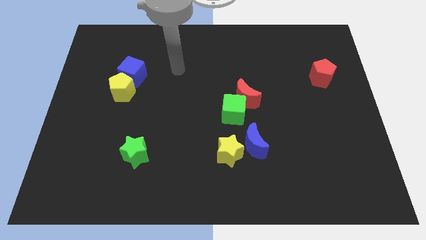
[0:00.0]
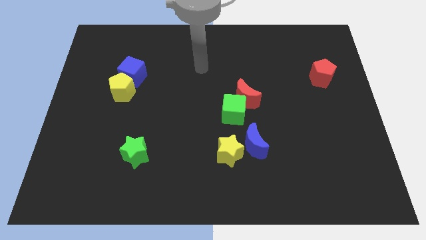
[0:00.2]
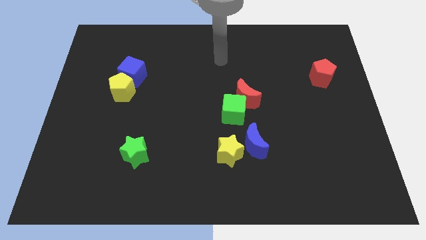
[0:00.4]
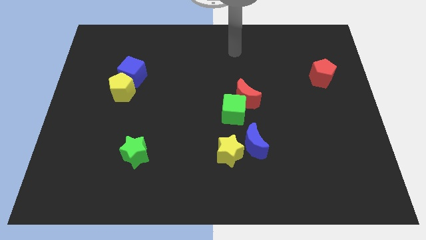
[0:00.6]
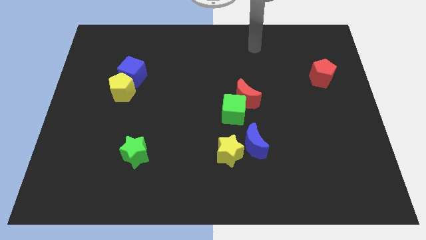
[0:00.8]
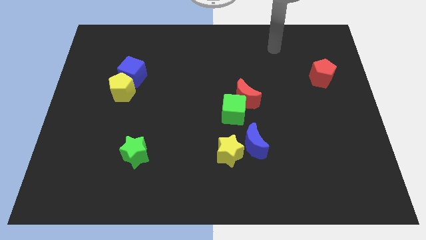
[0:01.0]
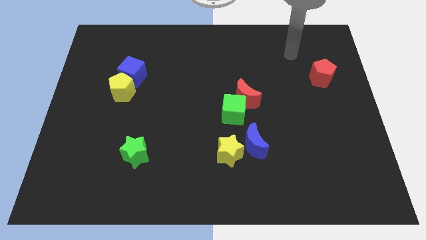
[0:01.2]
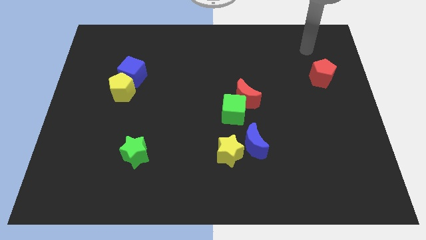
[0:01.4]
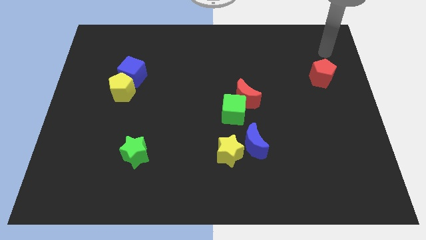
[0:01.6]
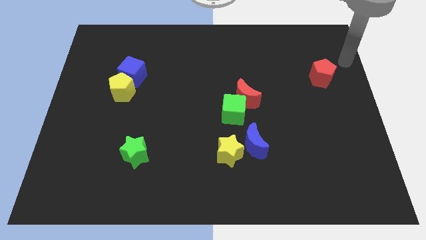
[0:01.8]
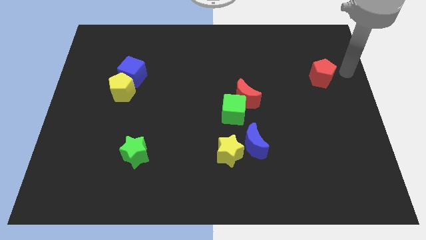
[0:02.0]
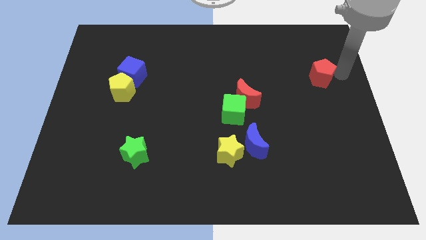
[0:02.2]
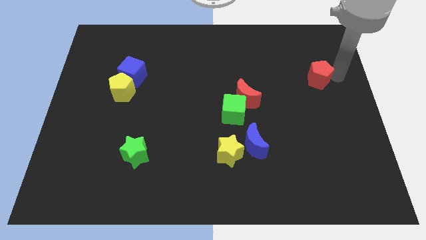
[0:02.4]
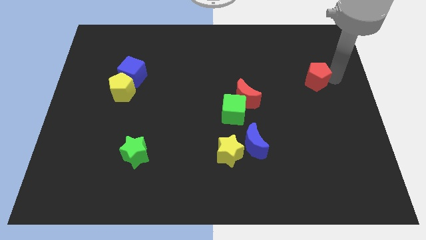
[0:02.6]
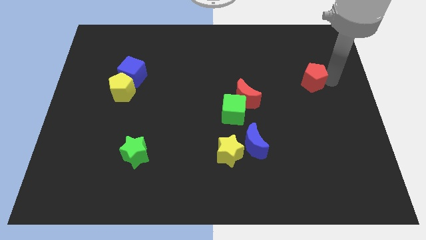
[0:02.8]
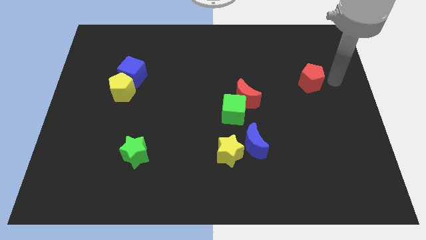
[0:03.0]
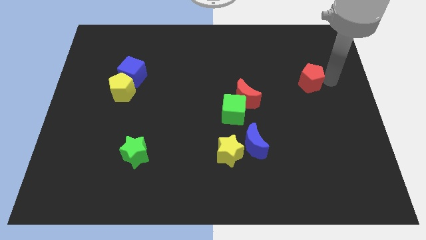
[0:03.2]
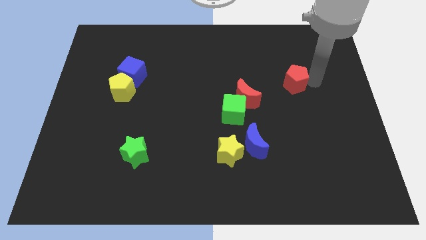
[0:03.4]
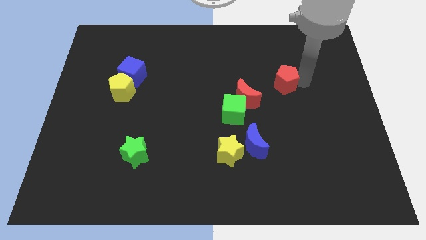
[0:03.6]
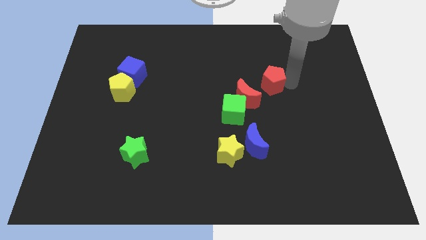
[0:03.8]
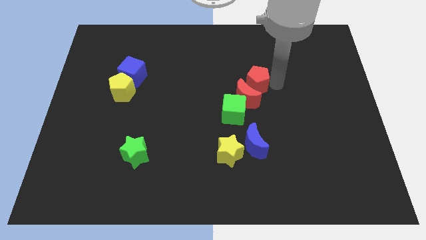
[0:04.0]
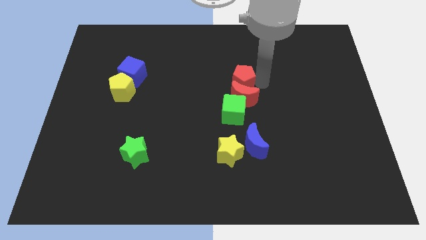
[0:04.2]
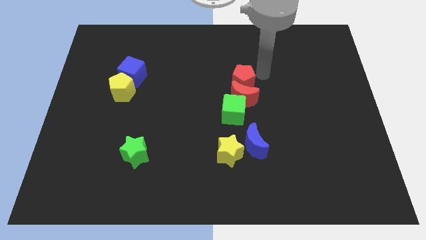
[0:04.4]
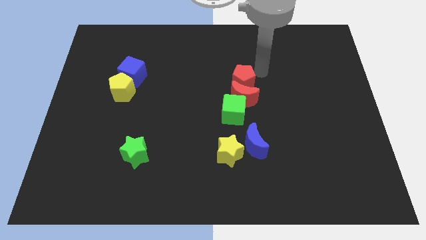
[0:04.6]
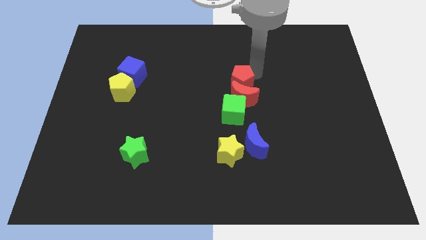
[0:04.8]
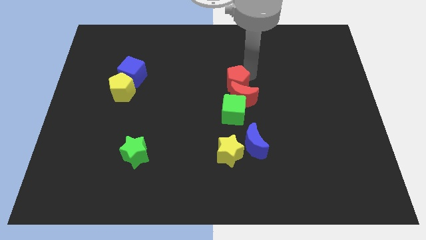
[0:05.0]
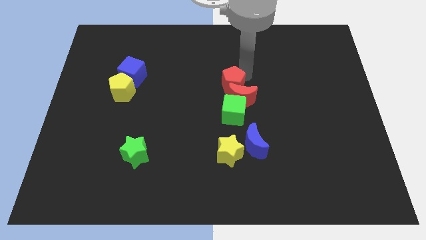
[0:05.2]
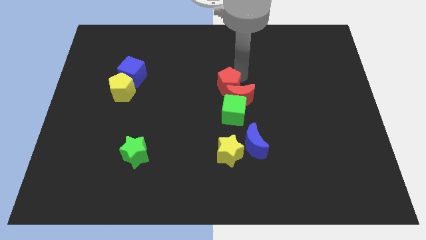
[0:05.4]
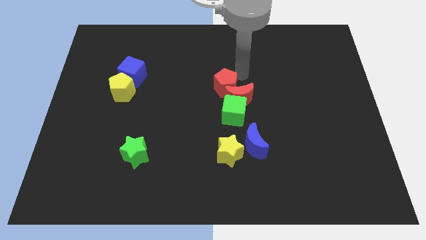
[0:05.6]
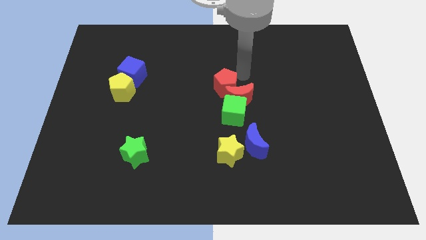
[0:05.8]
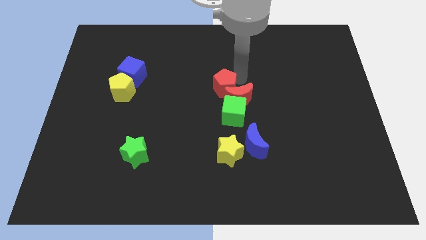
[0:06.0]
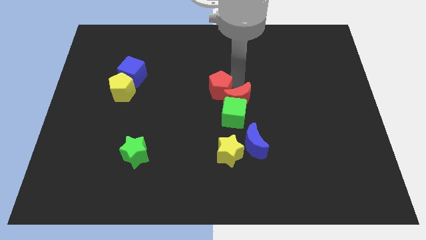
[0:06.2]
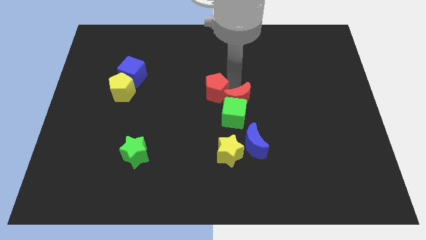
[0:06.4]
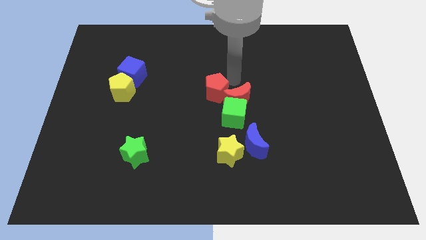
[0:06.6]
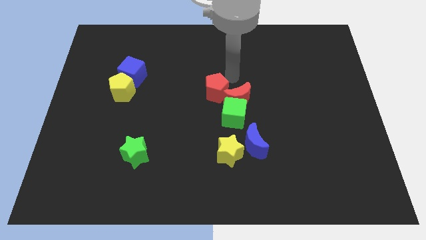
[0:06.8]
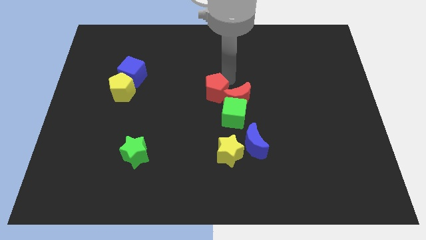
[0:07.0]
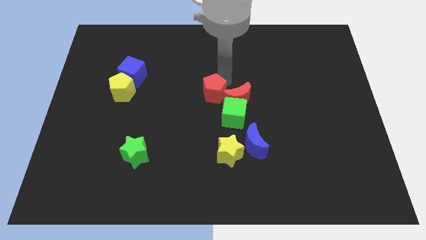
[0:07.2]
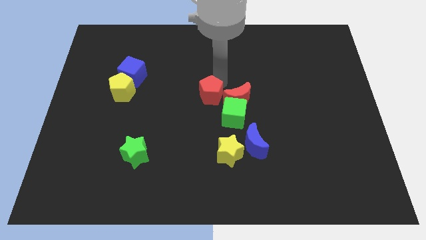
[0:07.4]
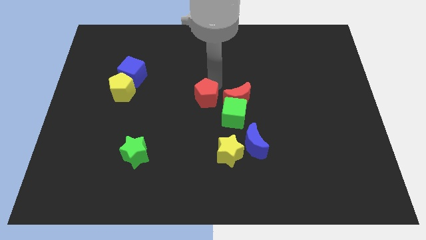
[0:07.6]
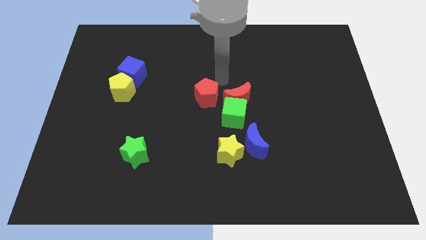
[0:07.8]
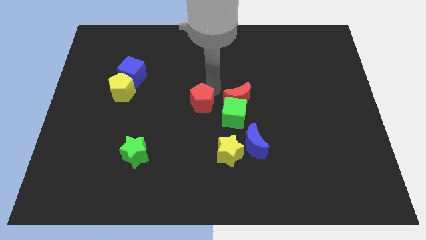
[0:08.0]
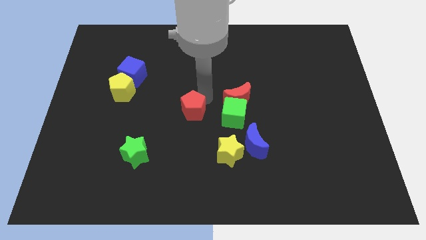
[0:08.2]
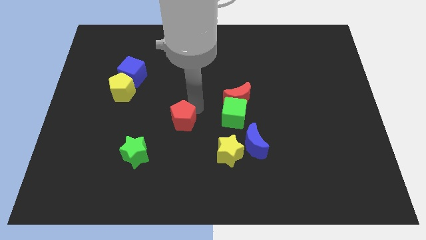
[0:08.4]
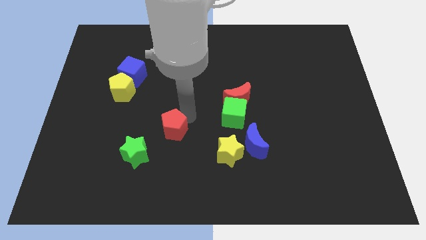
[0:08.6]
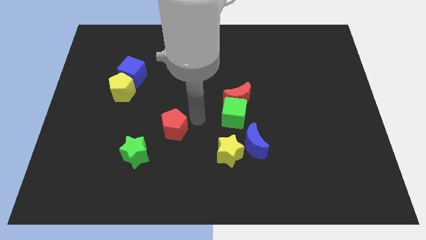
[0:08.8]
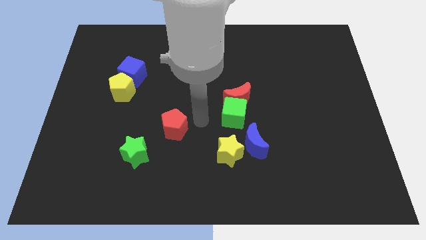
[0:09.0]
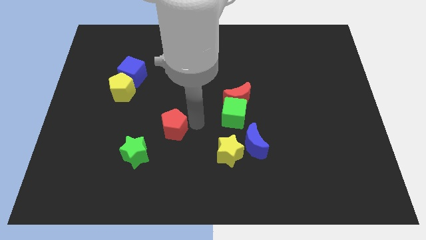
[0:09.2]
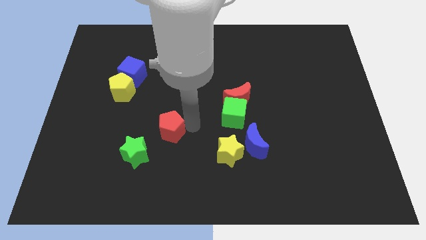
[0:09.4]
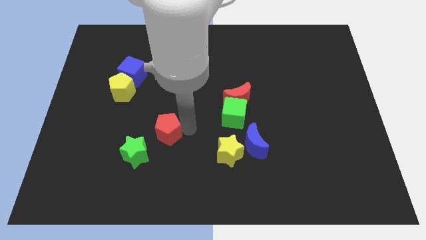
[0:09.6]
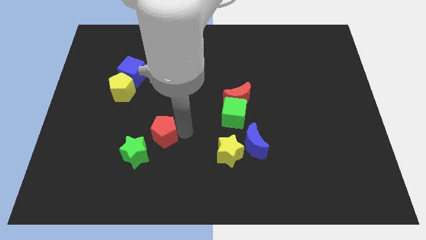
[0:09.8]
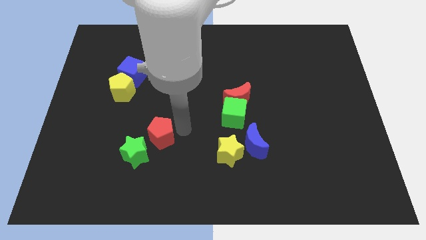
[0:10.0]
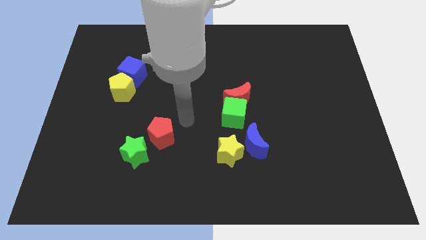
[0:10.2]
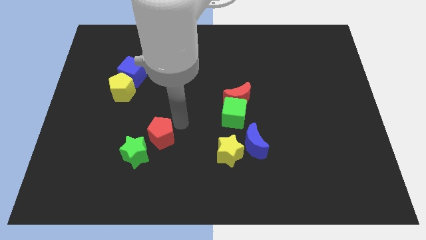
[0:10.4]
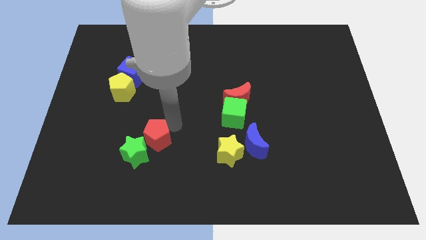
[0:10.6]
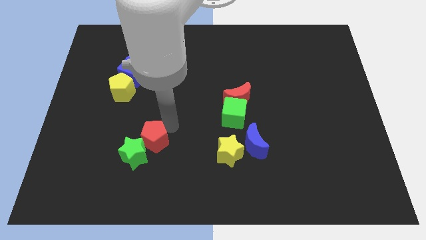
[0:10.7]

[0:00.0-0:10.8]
put the red pentagon close to the green star

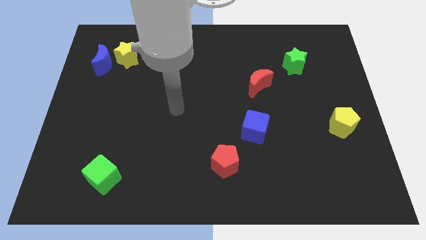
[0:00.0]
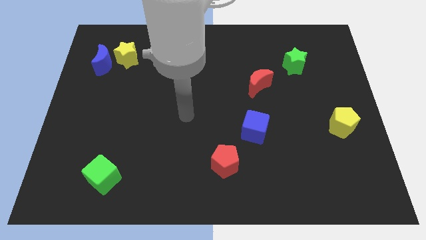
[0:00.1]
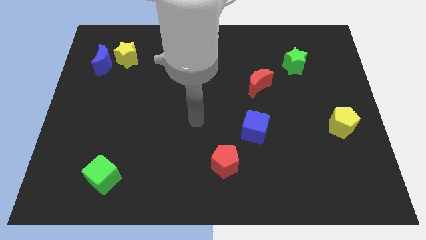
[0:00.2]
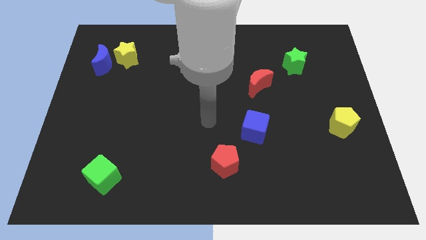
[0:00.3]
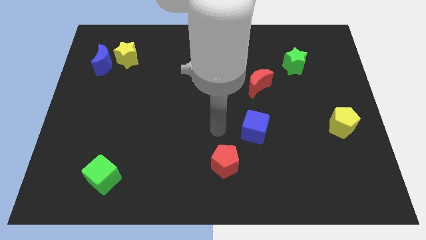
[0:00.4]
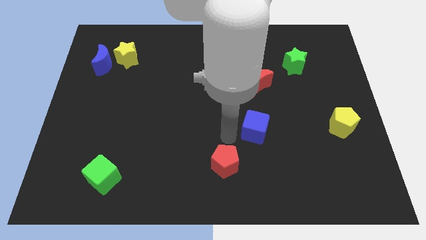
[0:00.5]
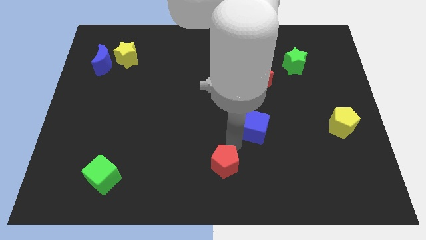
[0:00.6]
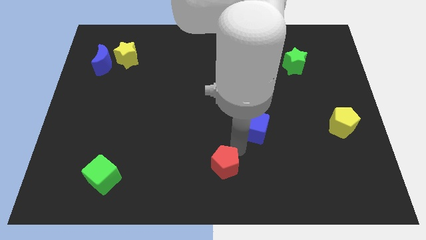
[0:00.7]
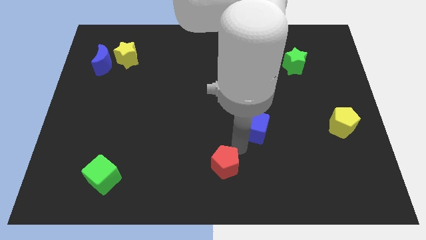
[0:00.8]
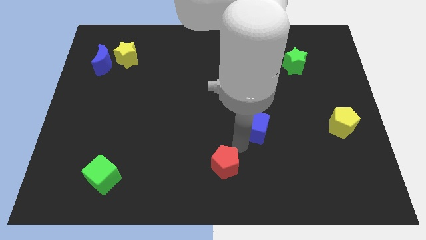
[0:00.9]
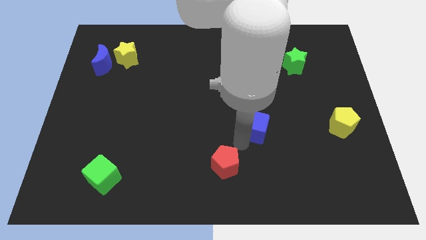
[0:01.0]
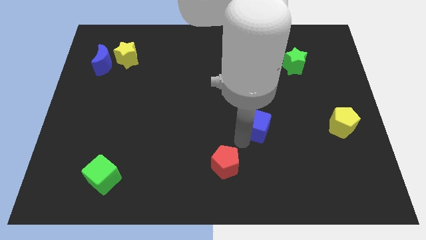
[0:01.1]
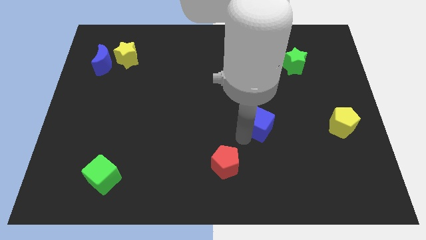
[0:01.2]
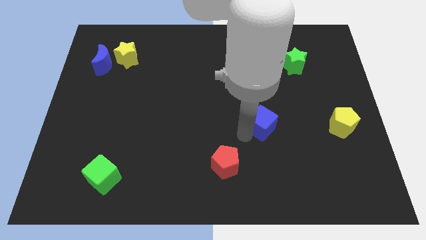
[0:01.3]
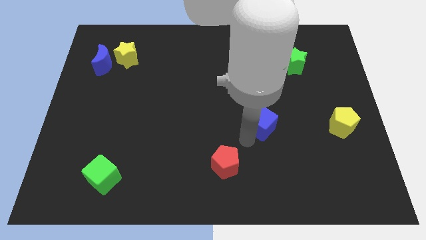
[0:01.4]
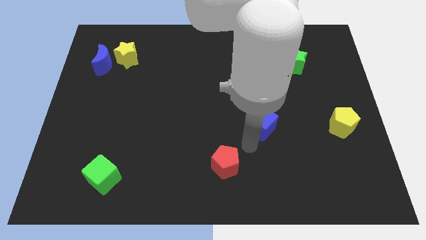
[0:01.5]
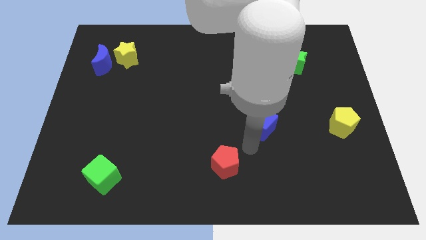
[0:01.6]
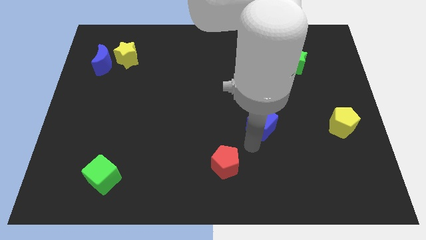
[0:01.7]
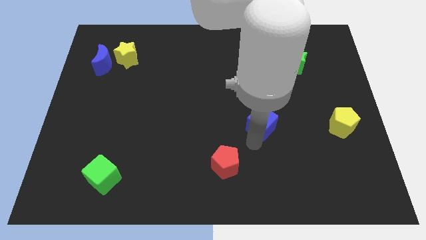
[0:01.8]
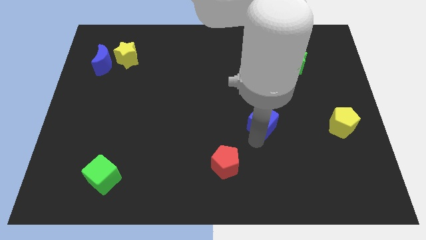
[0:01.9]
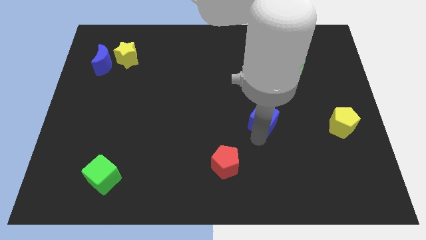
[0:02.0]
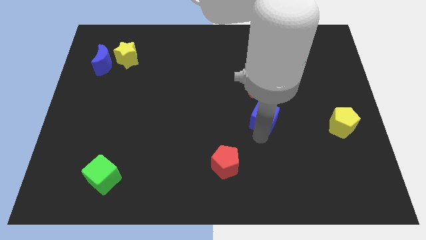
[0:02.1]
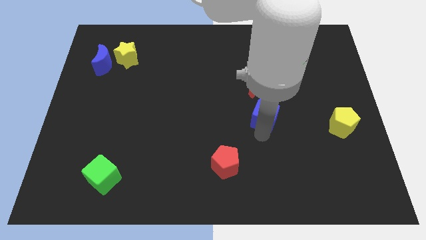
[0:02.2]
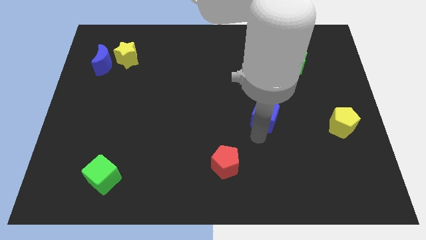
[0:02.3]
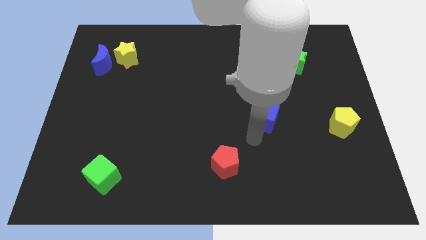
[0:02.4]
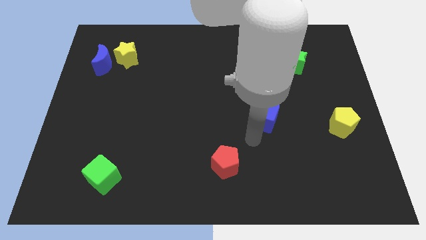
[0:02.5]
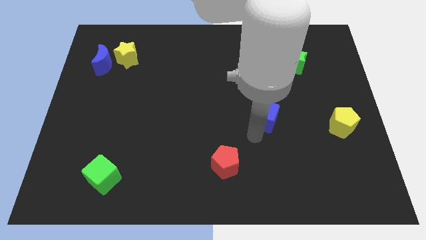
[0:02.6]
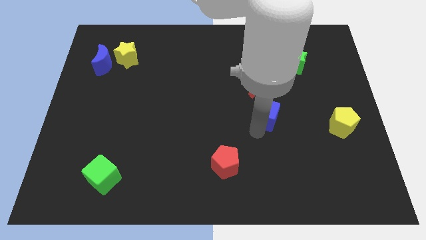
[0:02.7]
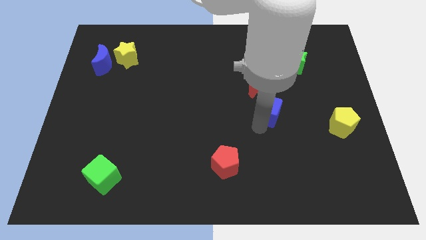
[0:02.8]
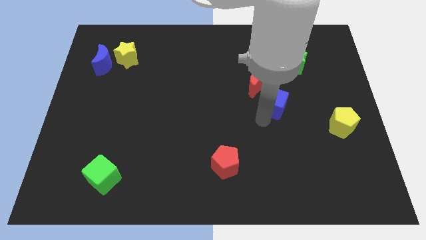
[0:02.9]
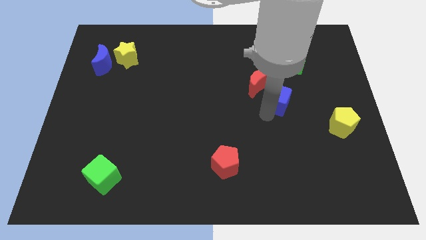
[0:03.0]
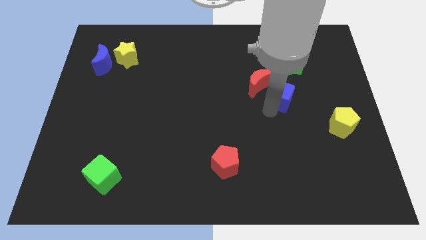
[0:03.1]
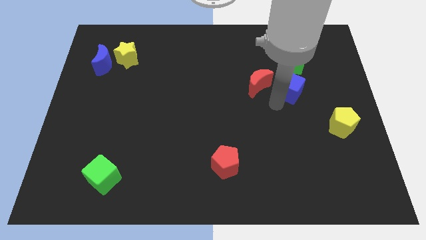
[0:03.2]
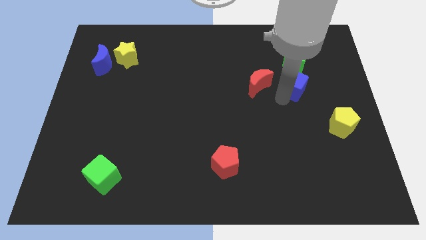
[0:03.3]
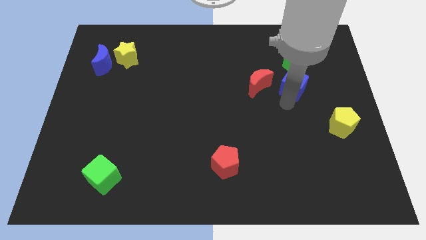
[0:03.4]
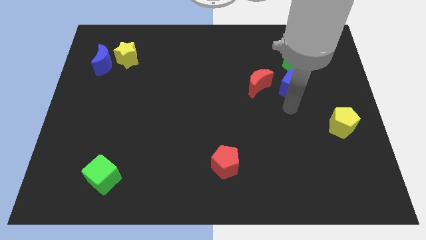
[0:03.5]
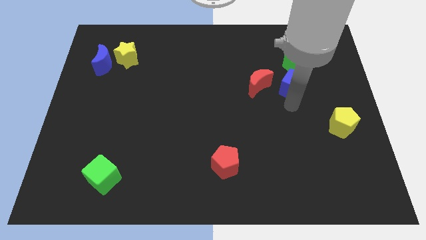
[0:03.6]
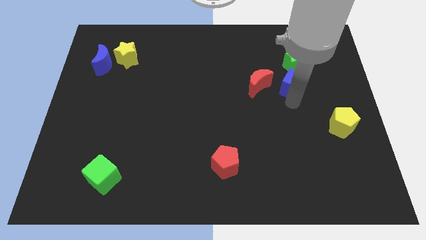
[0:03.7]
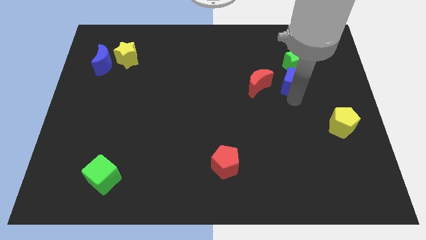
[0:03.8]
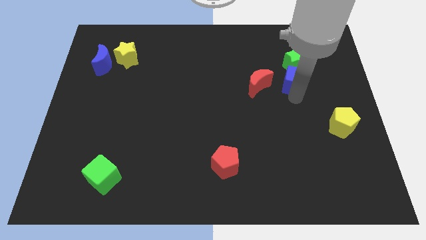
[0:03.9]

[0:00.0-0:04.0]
move the blue cube towards the green star
